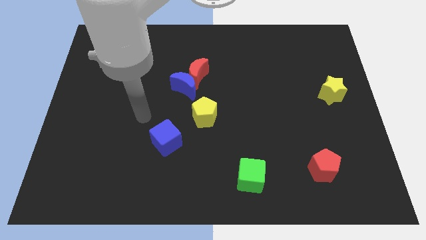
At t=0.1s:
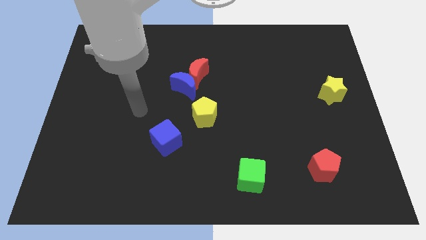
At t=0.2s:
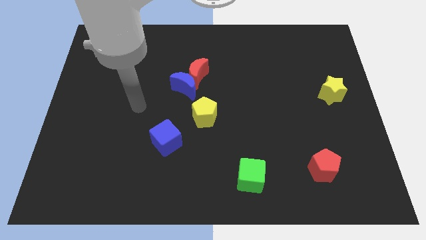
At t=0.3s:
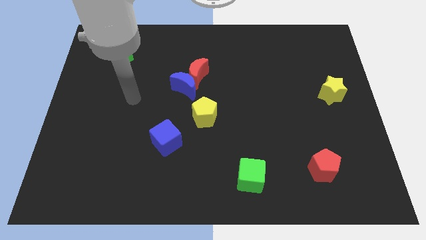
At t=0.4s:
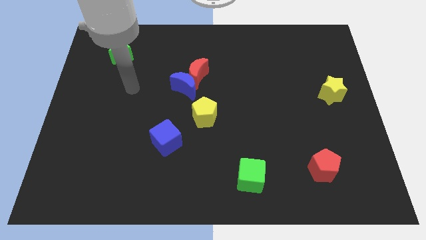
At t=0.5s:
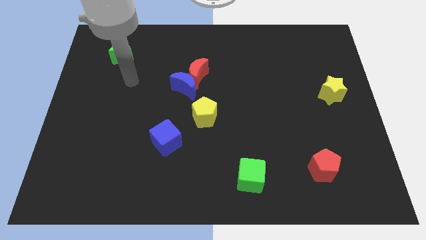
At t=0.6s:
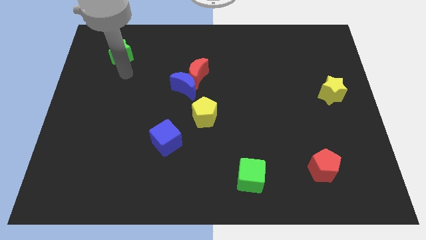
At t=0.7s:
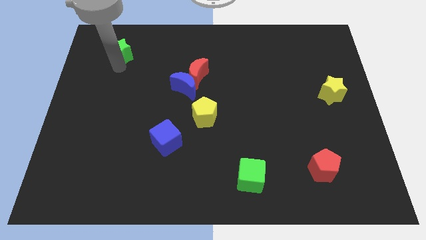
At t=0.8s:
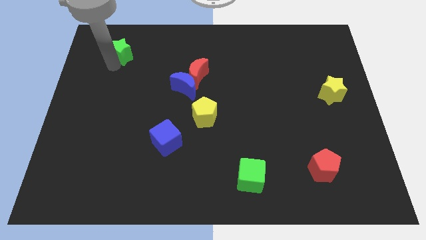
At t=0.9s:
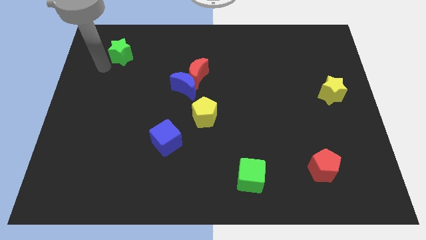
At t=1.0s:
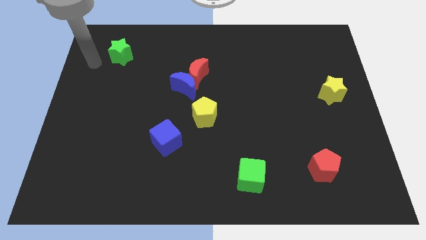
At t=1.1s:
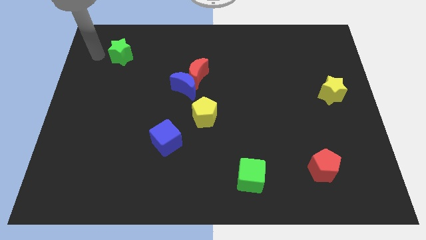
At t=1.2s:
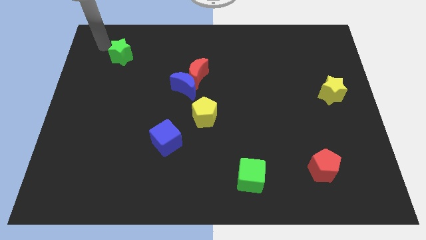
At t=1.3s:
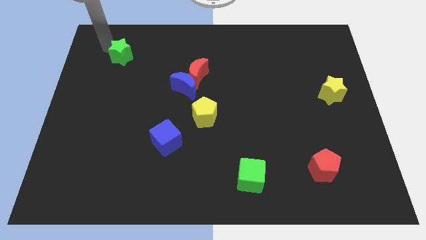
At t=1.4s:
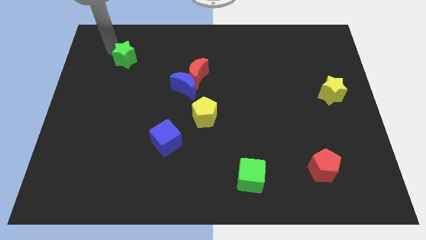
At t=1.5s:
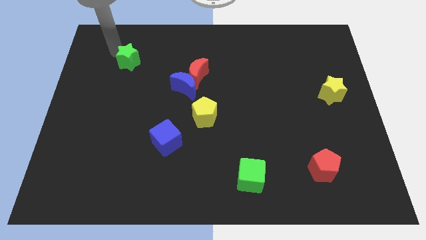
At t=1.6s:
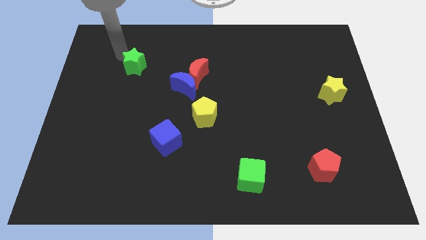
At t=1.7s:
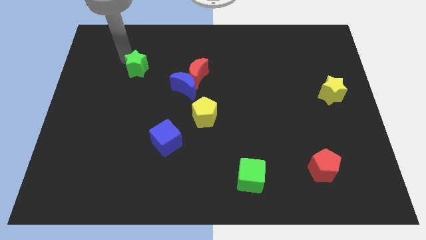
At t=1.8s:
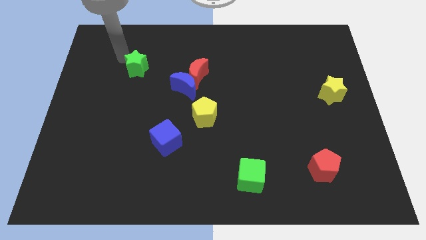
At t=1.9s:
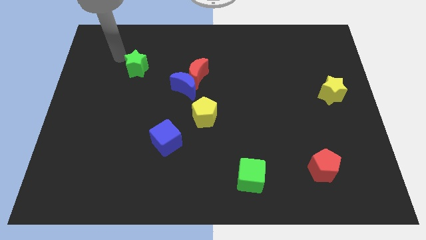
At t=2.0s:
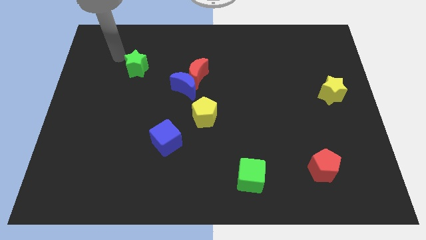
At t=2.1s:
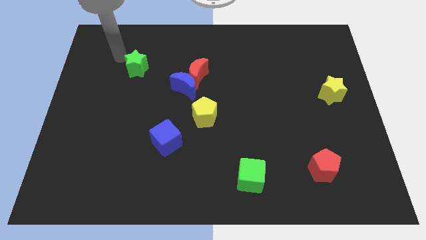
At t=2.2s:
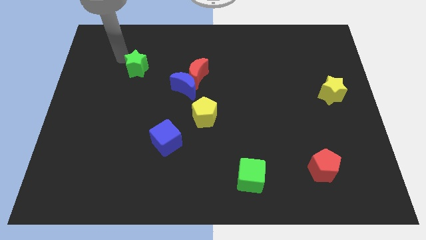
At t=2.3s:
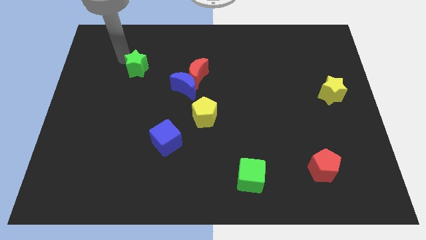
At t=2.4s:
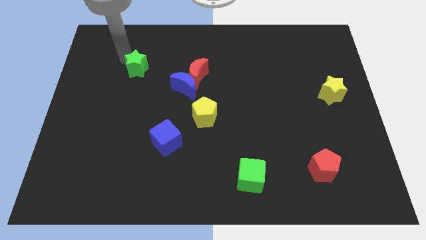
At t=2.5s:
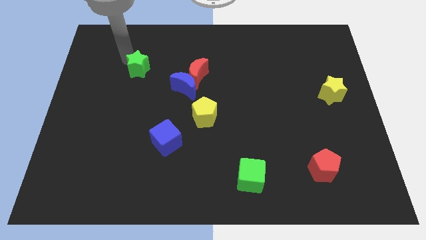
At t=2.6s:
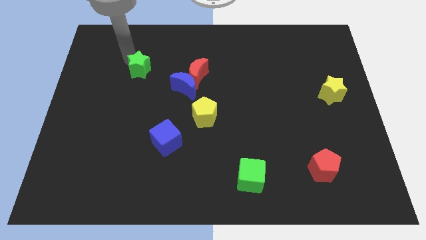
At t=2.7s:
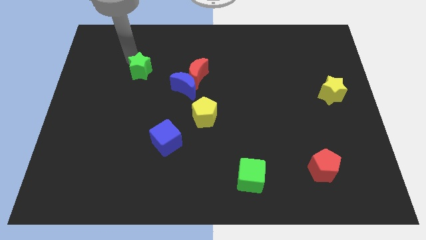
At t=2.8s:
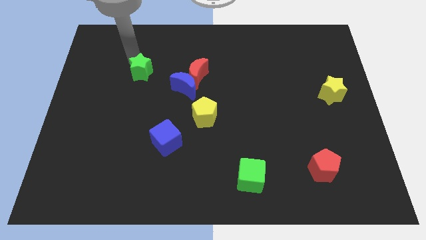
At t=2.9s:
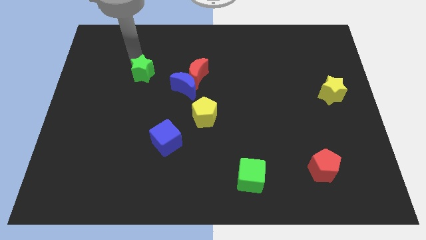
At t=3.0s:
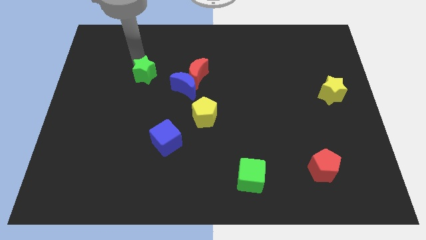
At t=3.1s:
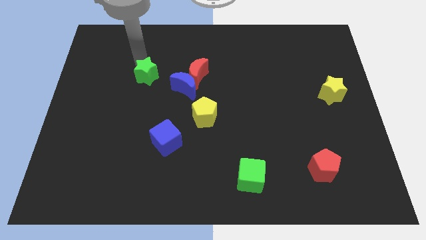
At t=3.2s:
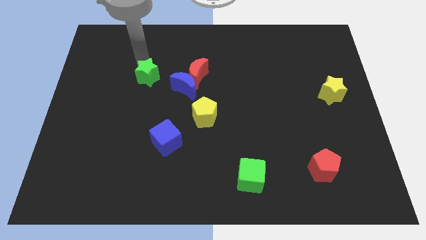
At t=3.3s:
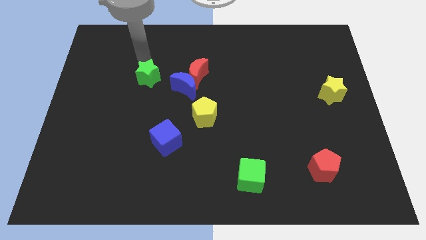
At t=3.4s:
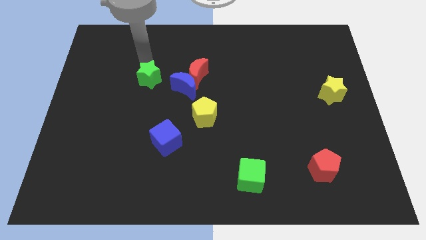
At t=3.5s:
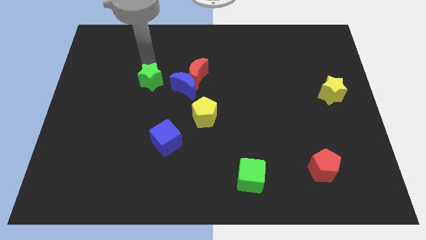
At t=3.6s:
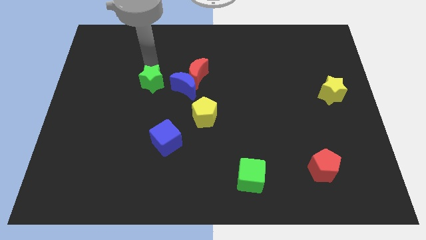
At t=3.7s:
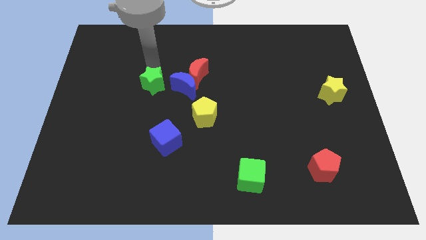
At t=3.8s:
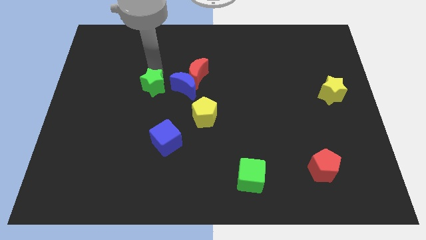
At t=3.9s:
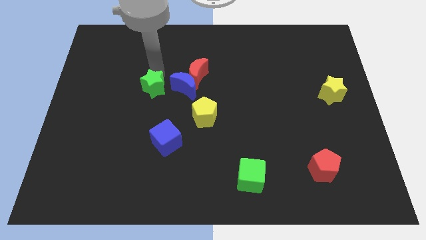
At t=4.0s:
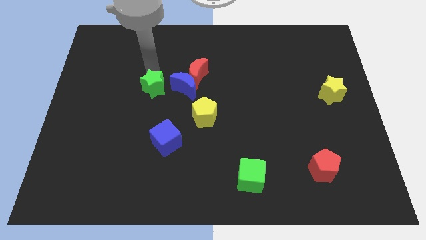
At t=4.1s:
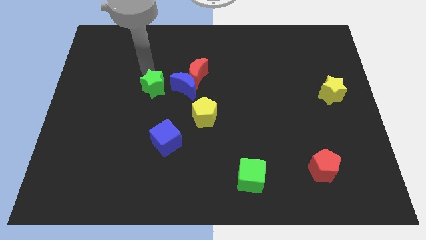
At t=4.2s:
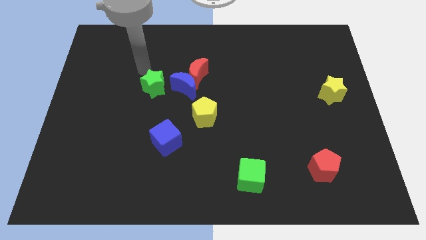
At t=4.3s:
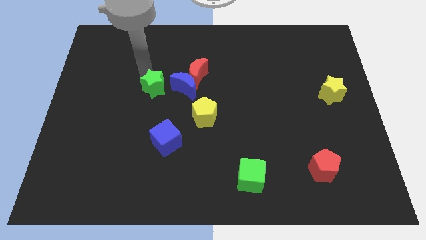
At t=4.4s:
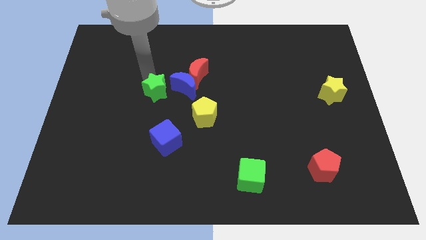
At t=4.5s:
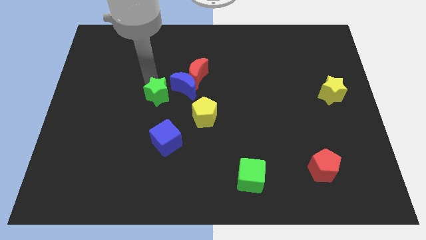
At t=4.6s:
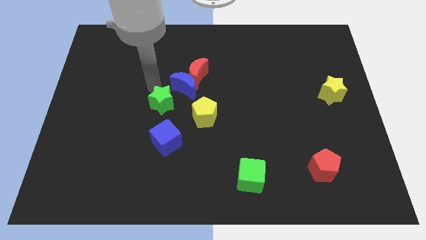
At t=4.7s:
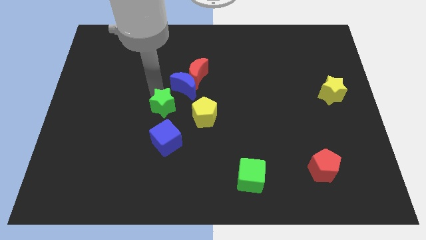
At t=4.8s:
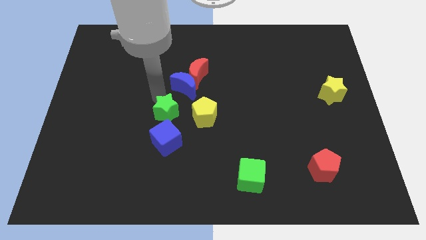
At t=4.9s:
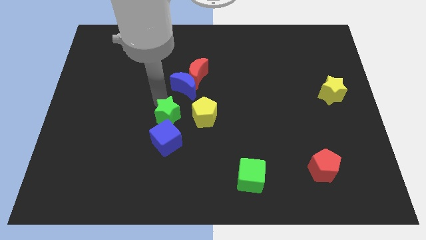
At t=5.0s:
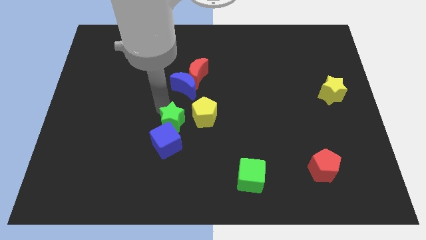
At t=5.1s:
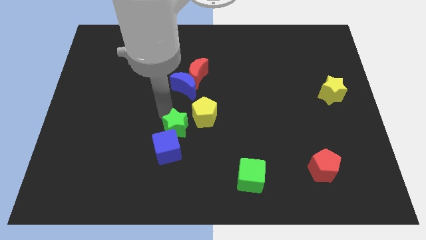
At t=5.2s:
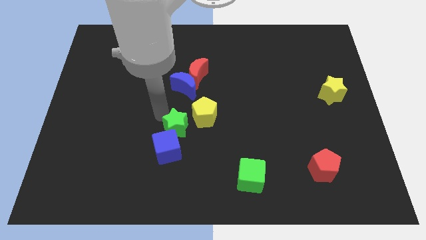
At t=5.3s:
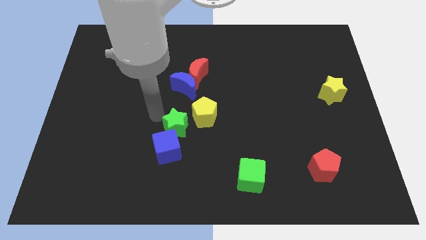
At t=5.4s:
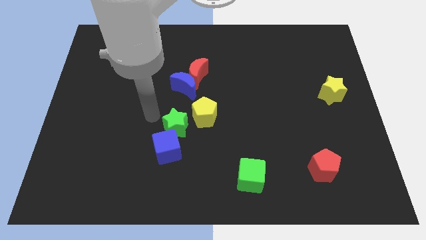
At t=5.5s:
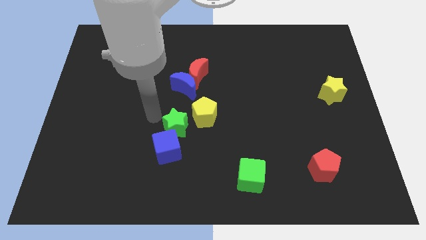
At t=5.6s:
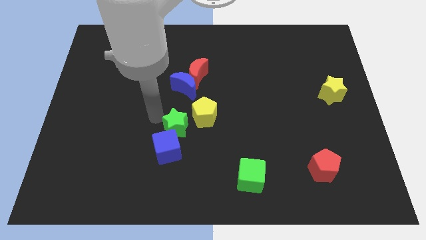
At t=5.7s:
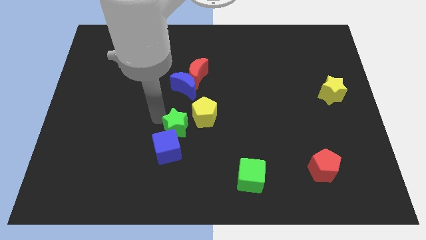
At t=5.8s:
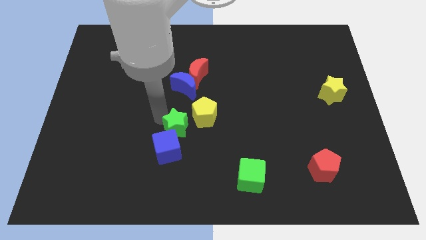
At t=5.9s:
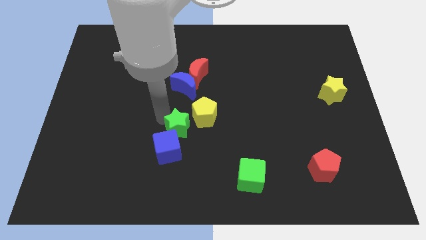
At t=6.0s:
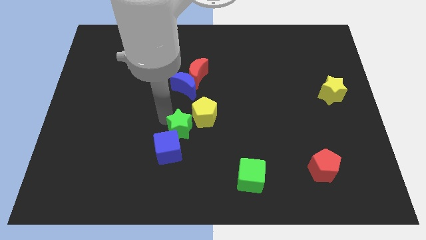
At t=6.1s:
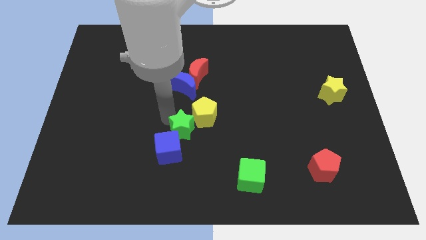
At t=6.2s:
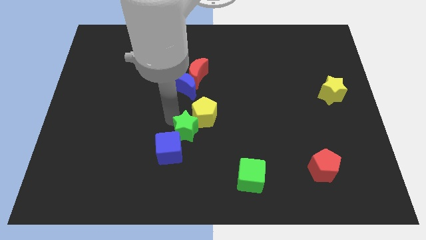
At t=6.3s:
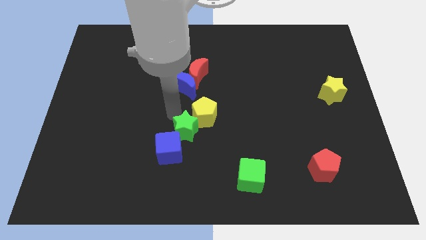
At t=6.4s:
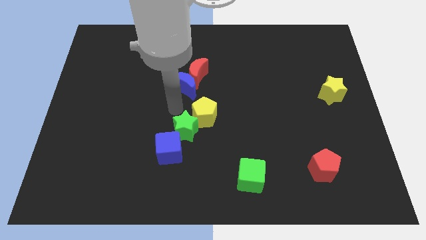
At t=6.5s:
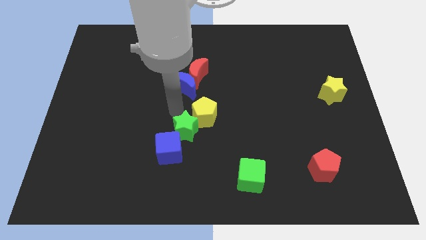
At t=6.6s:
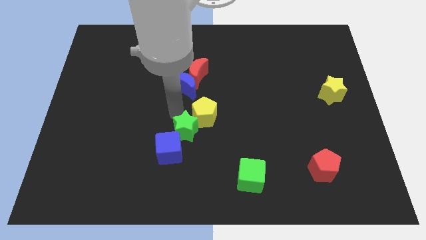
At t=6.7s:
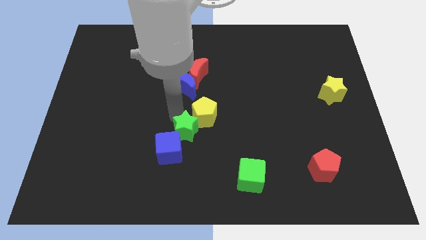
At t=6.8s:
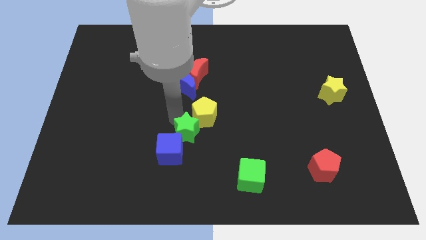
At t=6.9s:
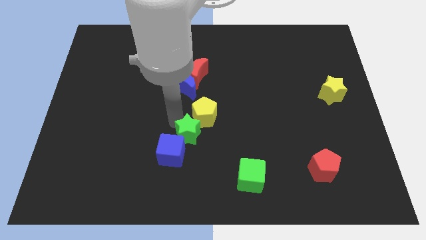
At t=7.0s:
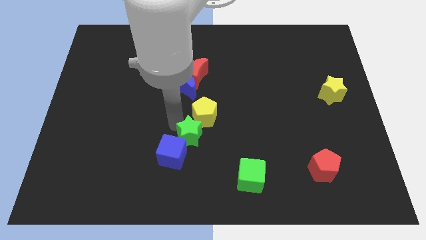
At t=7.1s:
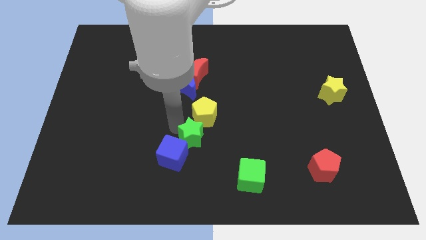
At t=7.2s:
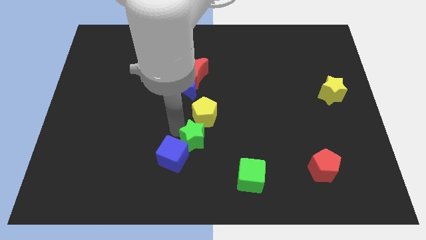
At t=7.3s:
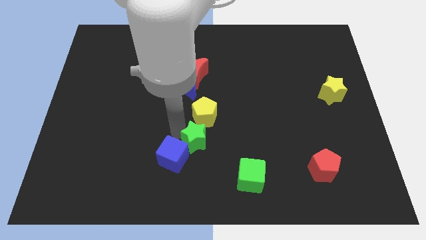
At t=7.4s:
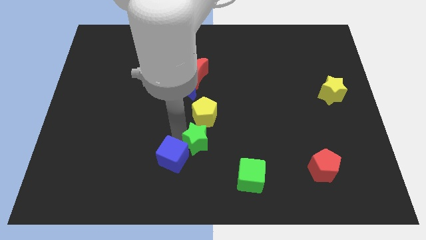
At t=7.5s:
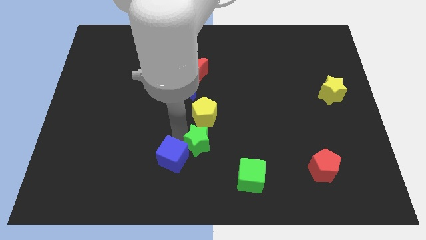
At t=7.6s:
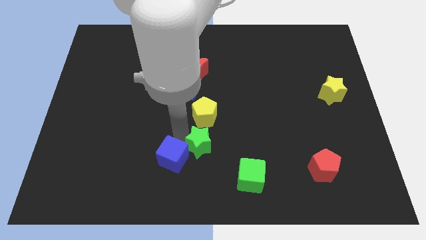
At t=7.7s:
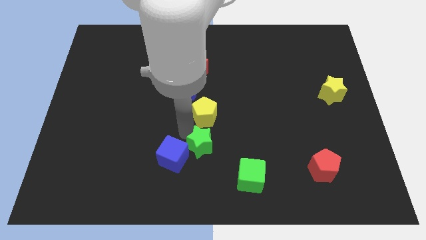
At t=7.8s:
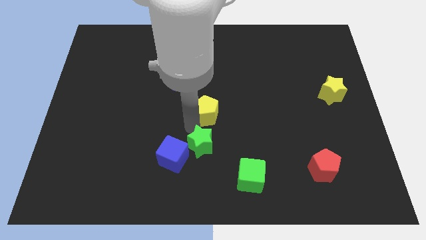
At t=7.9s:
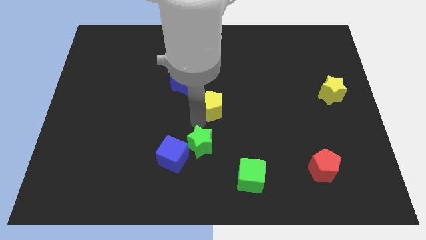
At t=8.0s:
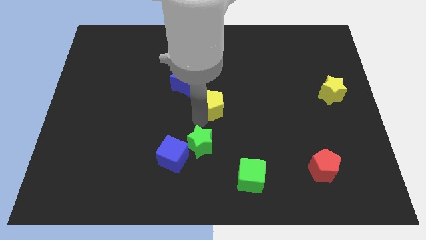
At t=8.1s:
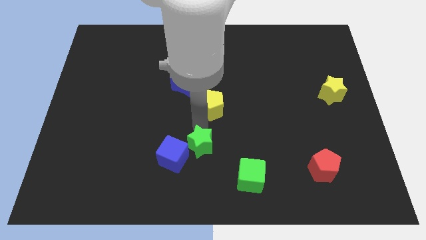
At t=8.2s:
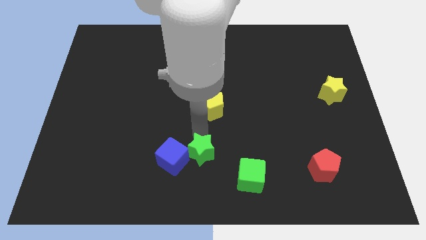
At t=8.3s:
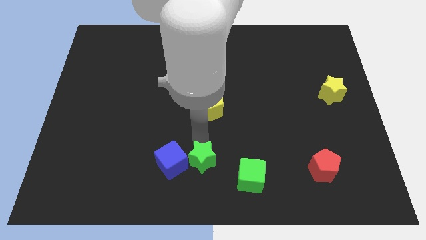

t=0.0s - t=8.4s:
put the green star left of the green cube
